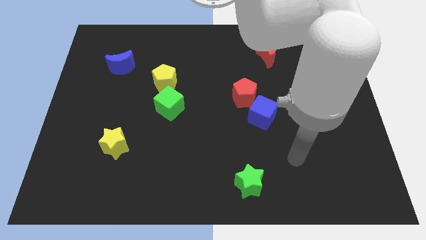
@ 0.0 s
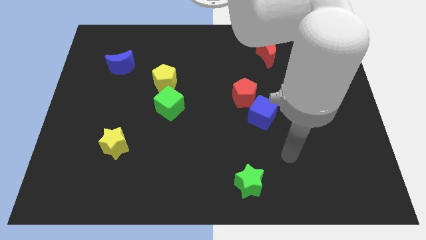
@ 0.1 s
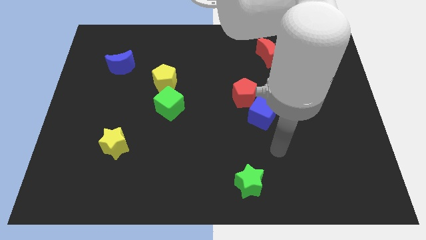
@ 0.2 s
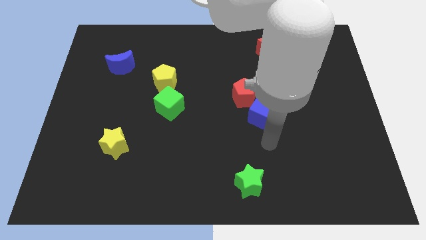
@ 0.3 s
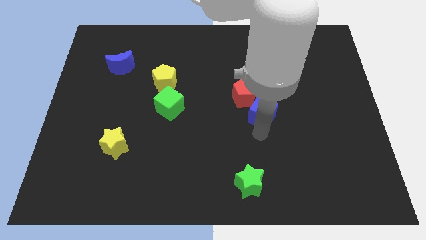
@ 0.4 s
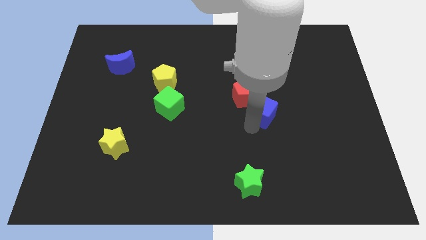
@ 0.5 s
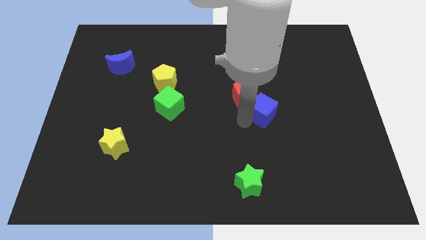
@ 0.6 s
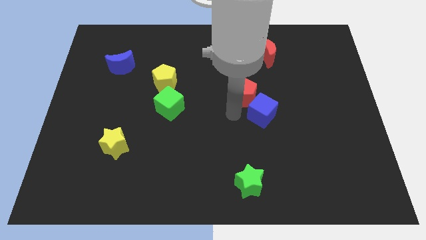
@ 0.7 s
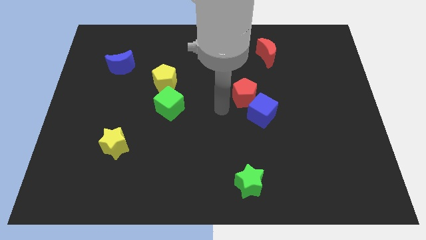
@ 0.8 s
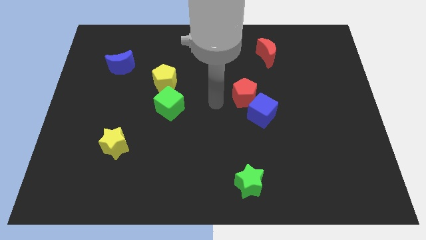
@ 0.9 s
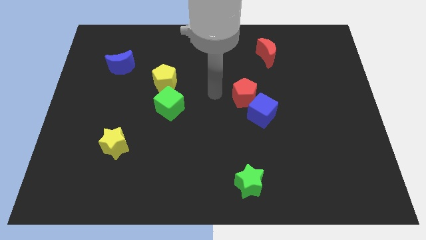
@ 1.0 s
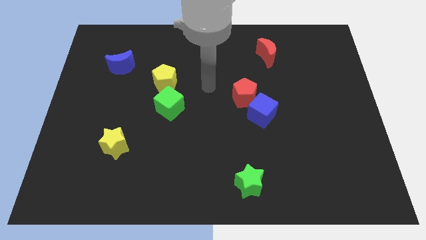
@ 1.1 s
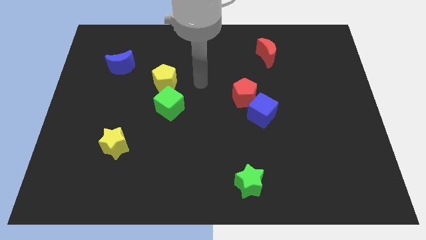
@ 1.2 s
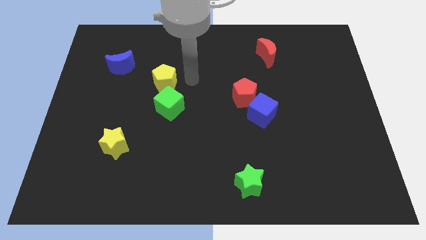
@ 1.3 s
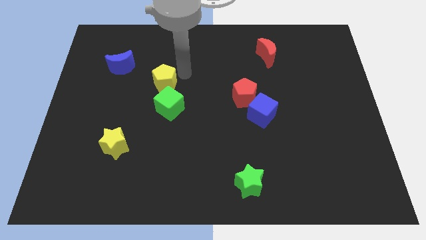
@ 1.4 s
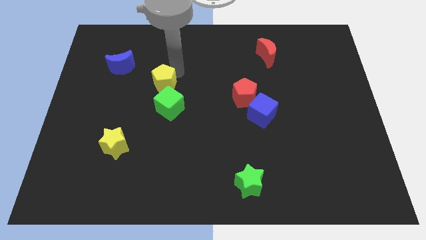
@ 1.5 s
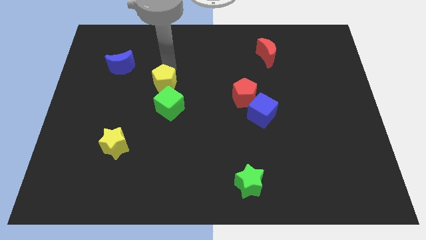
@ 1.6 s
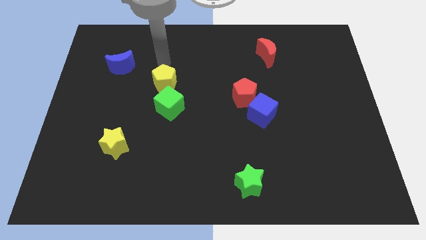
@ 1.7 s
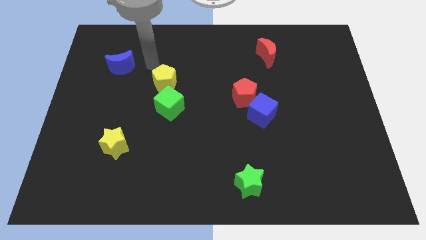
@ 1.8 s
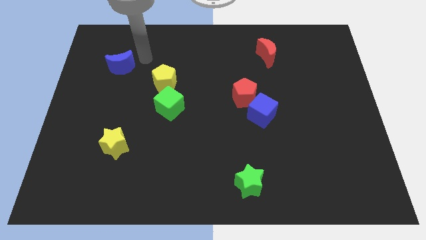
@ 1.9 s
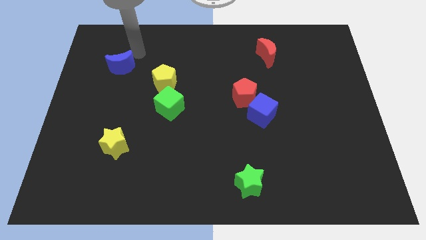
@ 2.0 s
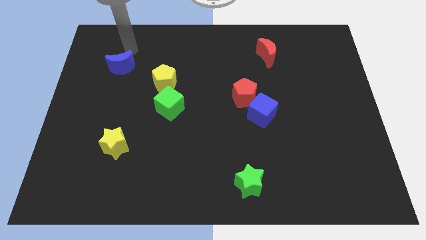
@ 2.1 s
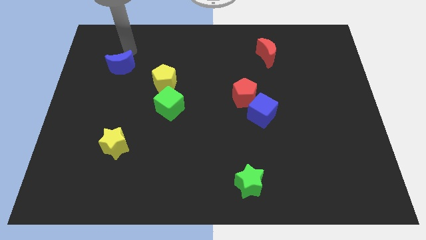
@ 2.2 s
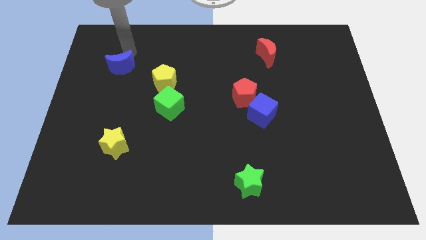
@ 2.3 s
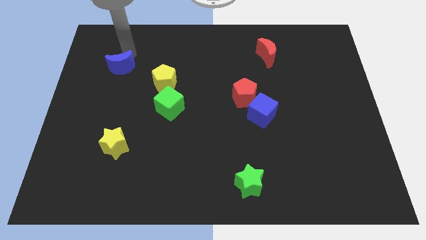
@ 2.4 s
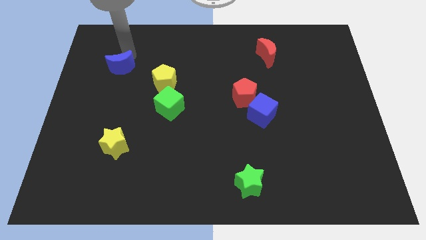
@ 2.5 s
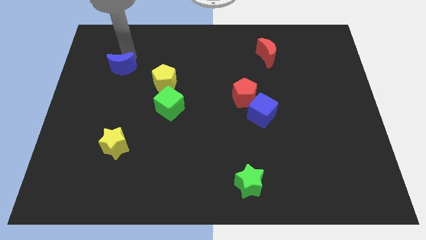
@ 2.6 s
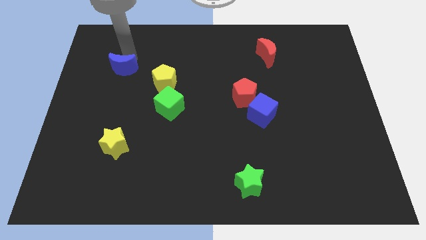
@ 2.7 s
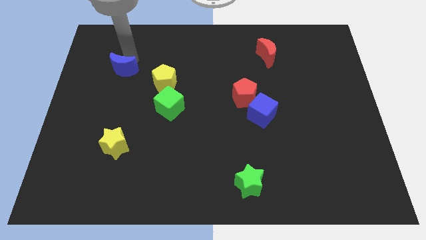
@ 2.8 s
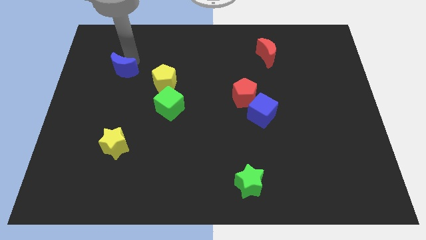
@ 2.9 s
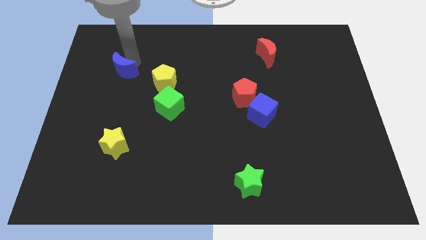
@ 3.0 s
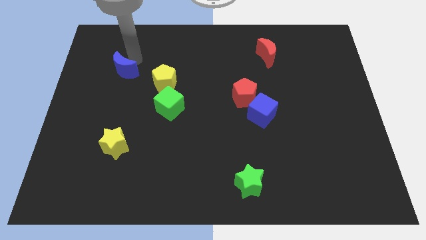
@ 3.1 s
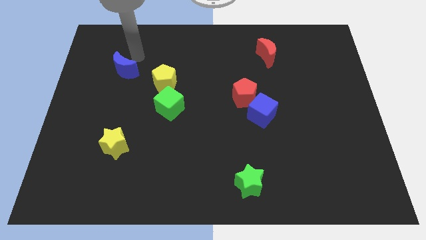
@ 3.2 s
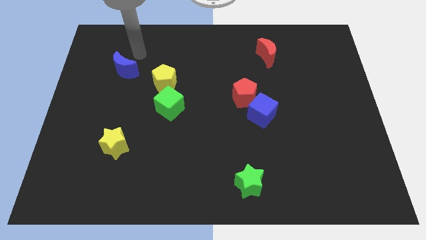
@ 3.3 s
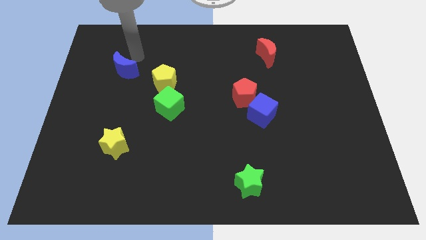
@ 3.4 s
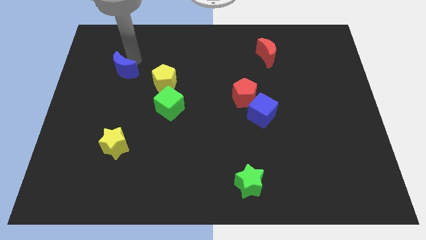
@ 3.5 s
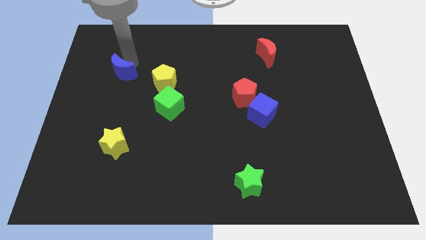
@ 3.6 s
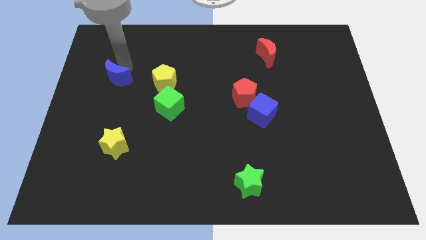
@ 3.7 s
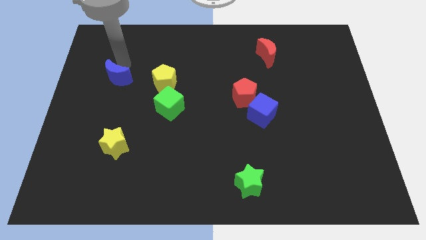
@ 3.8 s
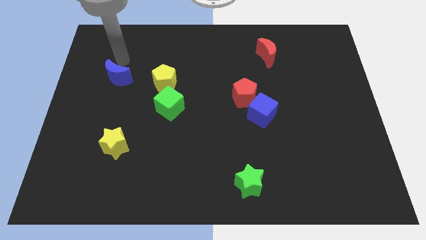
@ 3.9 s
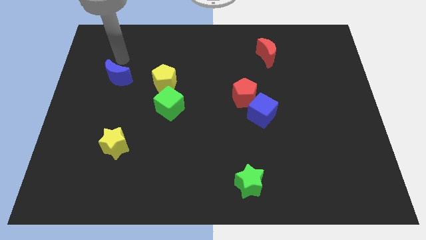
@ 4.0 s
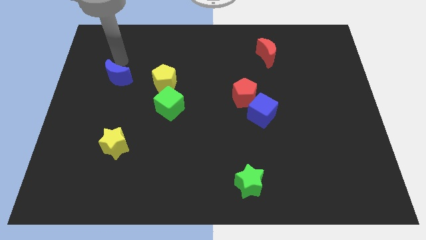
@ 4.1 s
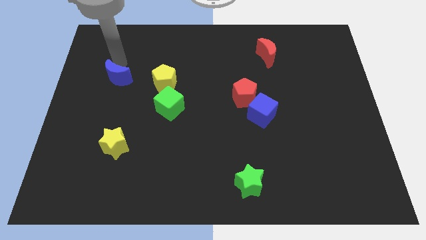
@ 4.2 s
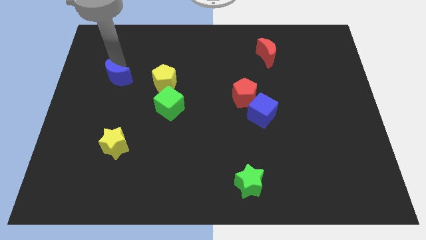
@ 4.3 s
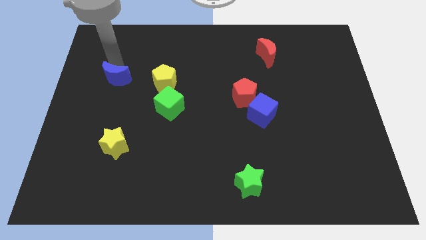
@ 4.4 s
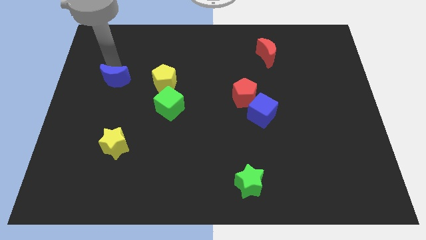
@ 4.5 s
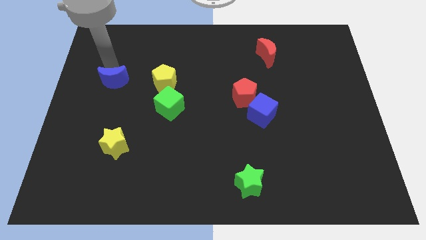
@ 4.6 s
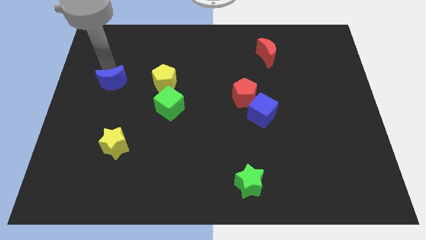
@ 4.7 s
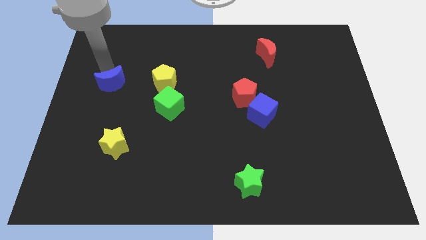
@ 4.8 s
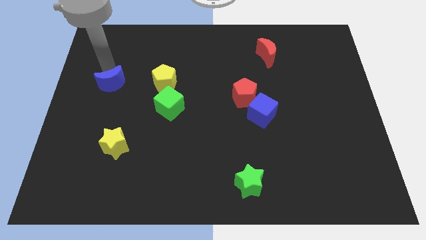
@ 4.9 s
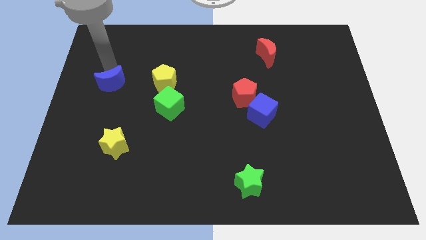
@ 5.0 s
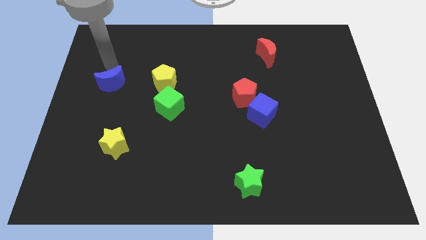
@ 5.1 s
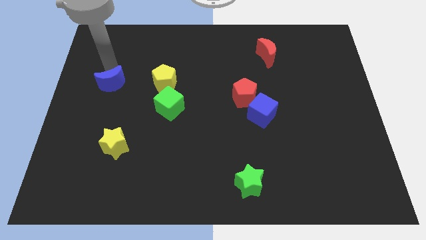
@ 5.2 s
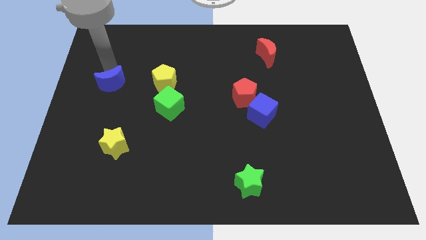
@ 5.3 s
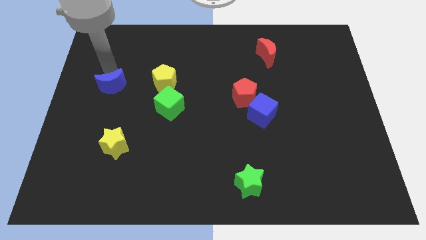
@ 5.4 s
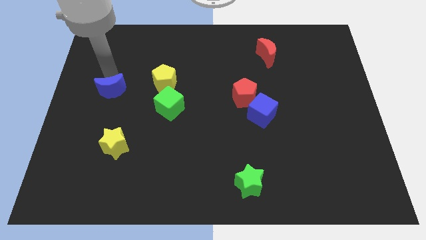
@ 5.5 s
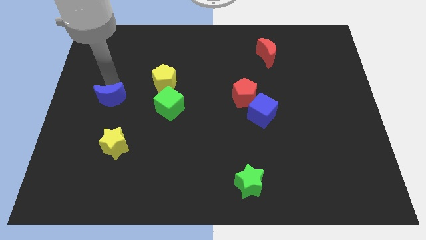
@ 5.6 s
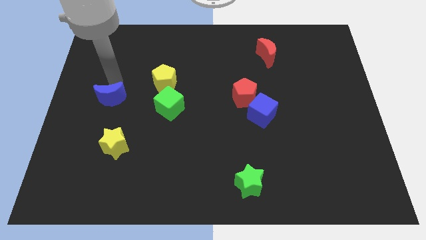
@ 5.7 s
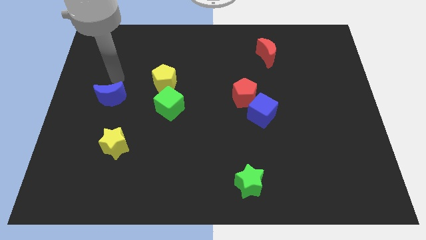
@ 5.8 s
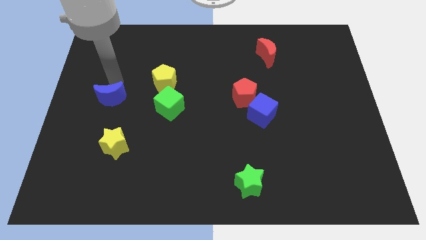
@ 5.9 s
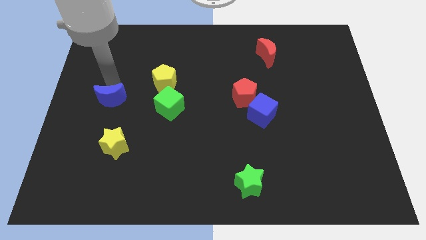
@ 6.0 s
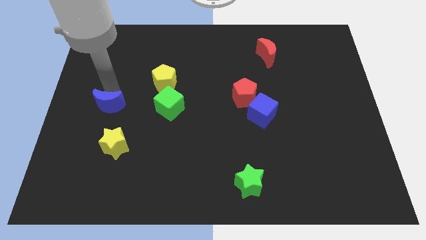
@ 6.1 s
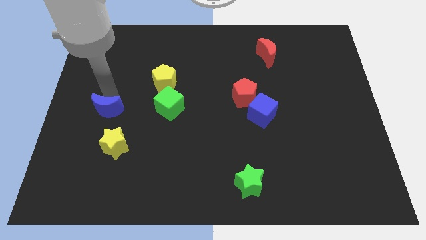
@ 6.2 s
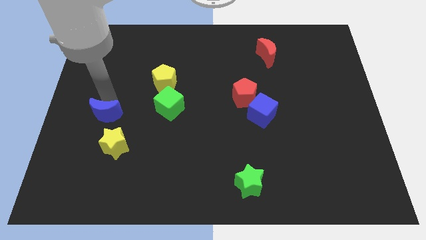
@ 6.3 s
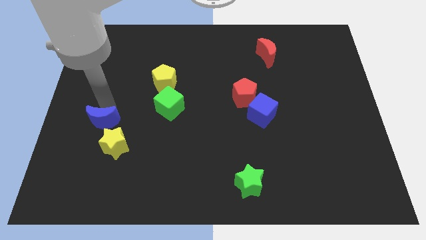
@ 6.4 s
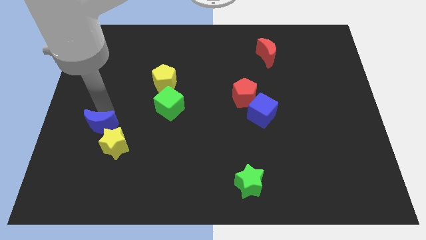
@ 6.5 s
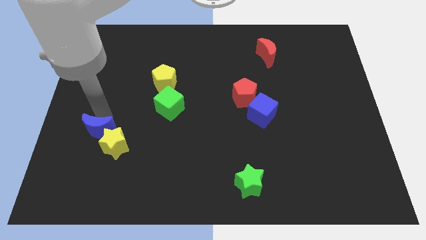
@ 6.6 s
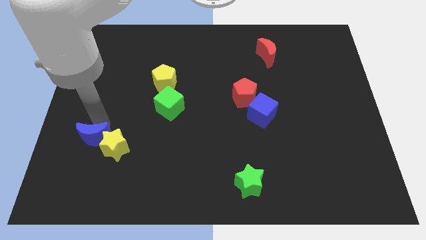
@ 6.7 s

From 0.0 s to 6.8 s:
move the blue moon downwards

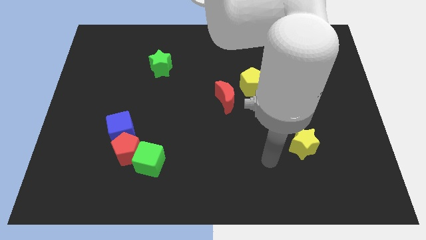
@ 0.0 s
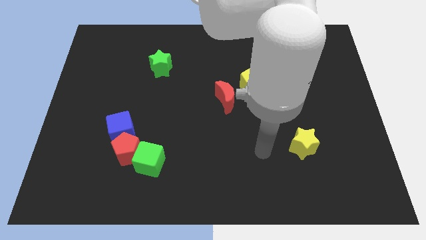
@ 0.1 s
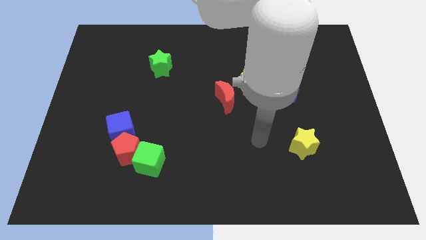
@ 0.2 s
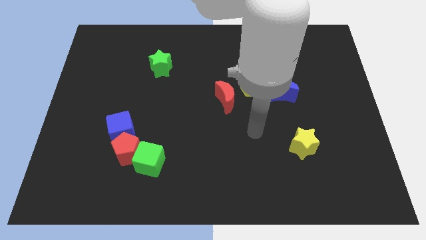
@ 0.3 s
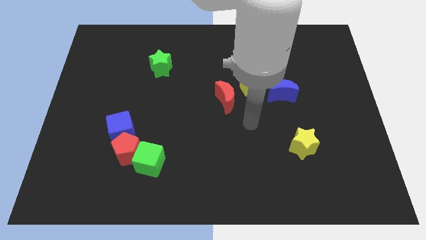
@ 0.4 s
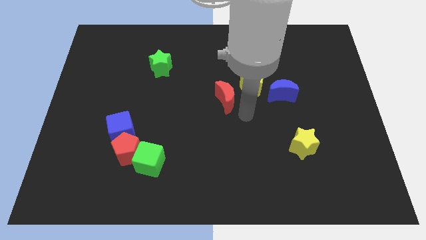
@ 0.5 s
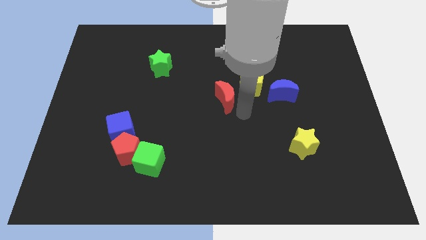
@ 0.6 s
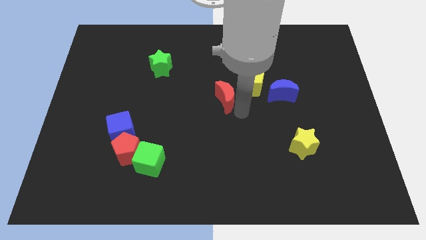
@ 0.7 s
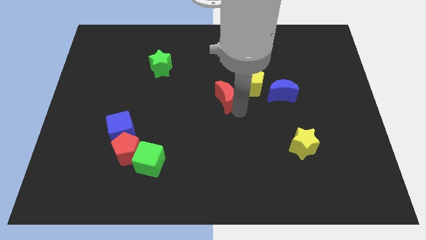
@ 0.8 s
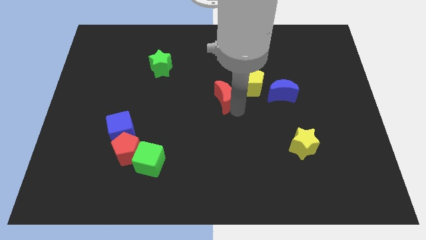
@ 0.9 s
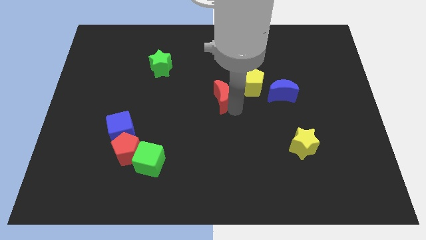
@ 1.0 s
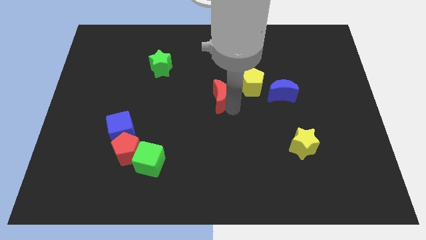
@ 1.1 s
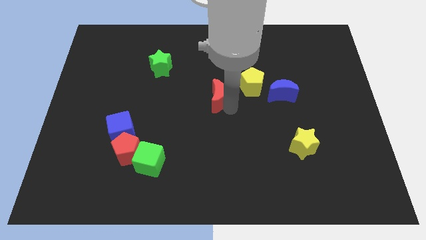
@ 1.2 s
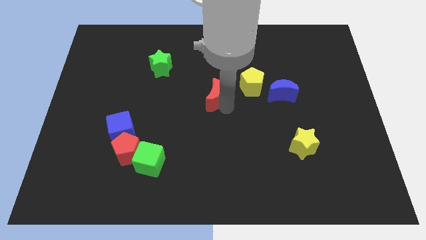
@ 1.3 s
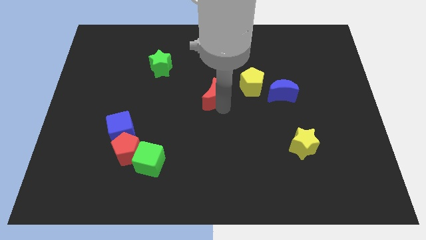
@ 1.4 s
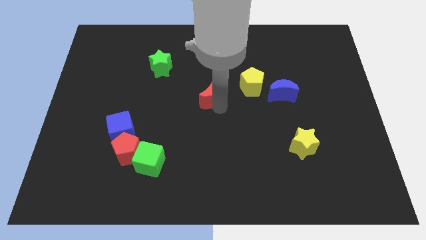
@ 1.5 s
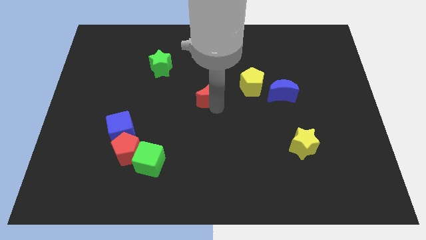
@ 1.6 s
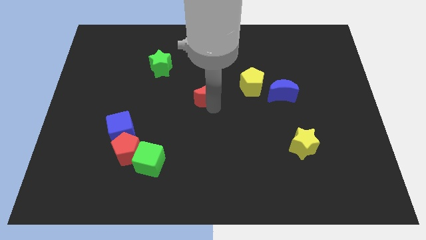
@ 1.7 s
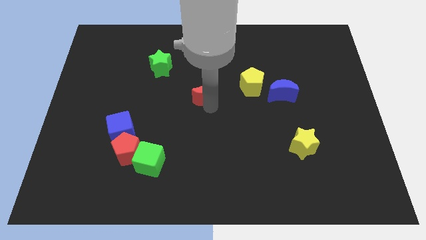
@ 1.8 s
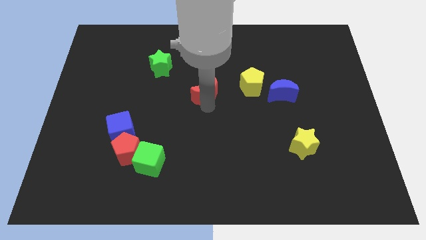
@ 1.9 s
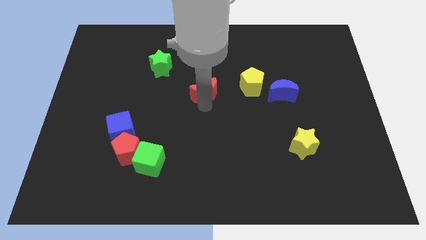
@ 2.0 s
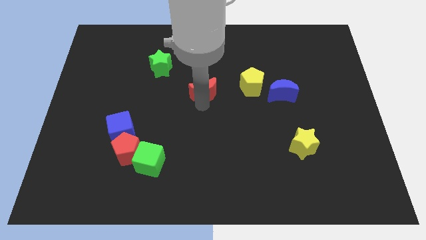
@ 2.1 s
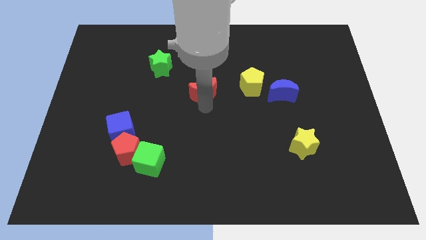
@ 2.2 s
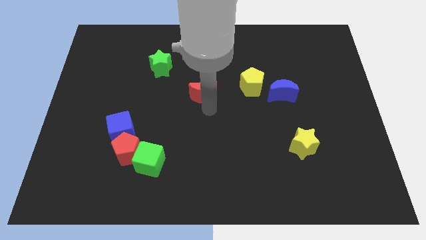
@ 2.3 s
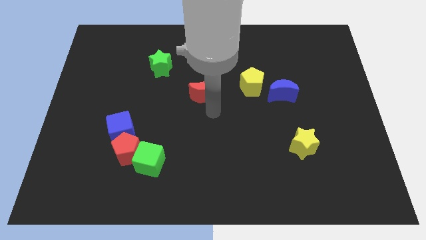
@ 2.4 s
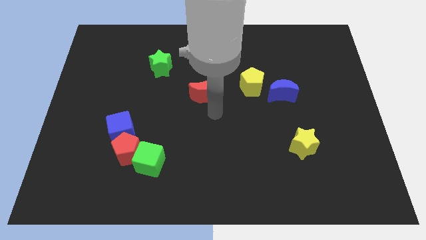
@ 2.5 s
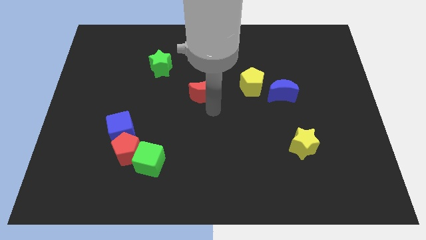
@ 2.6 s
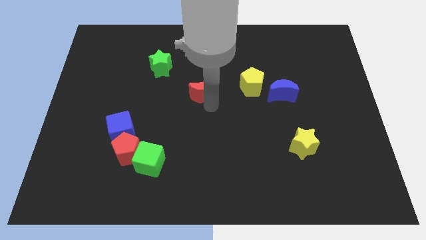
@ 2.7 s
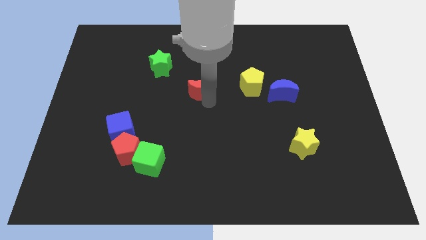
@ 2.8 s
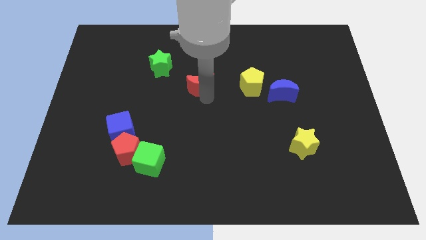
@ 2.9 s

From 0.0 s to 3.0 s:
push the red moon a little upwards and left
